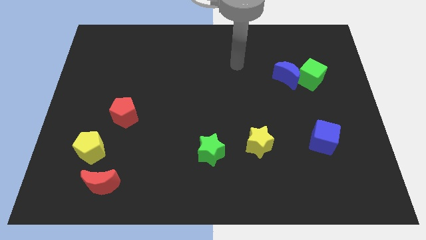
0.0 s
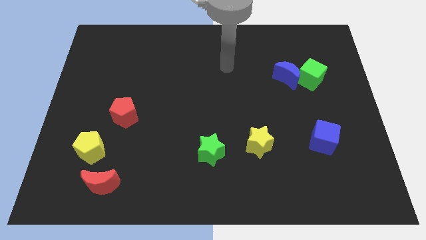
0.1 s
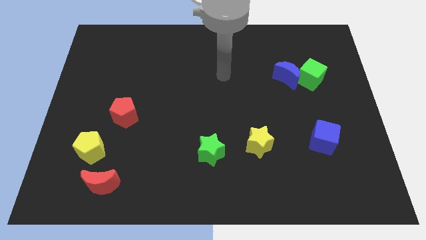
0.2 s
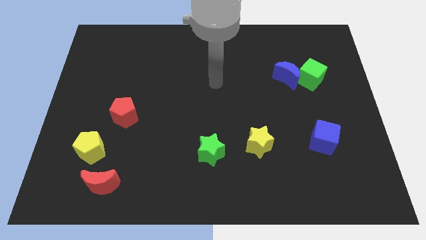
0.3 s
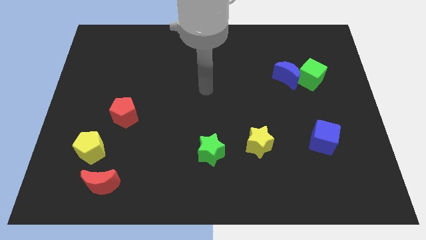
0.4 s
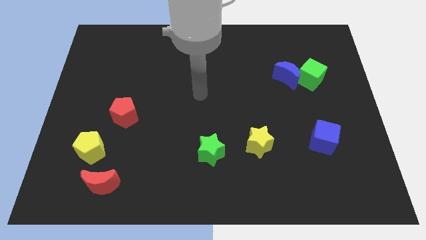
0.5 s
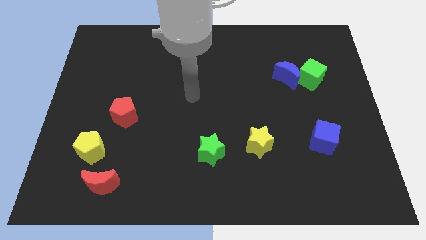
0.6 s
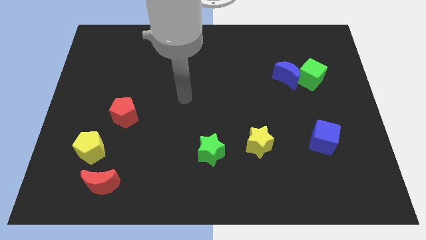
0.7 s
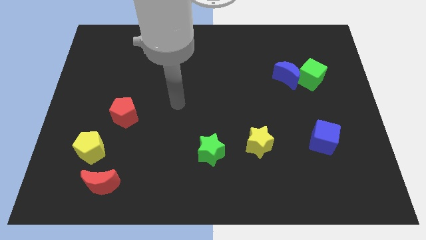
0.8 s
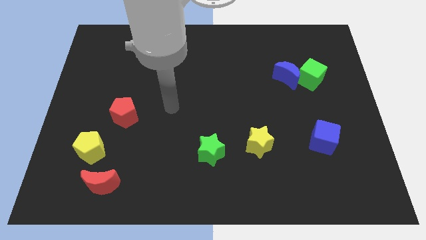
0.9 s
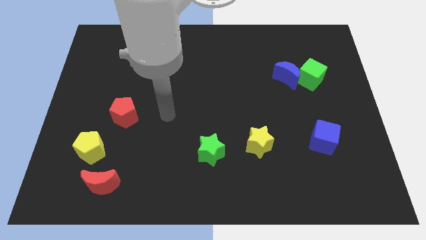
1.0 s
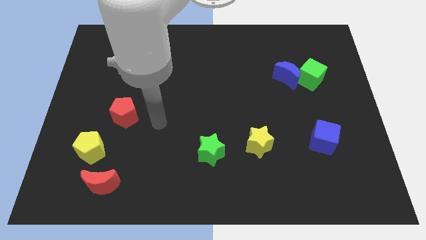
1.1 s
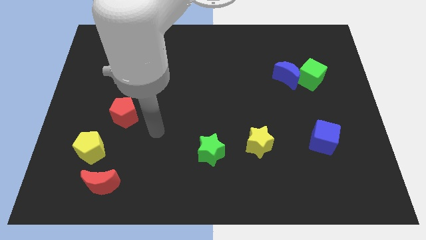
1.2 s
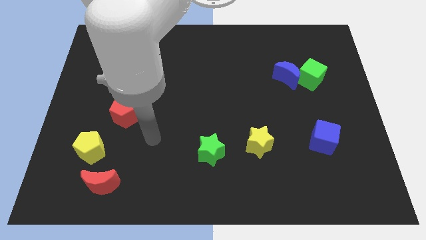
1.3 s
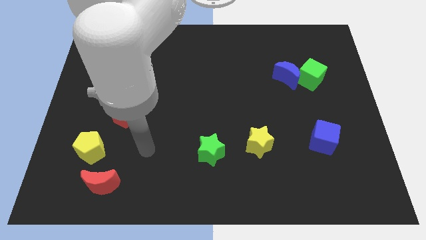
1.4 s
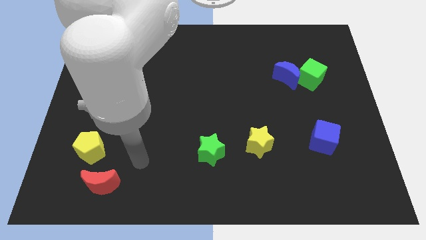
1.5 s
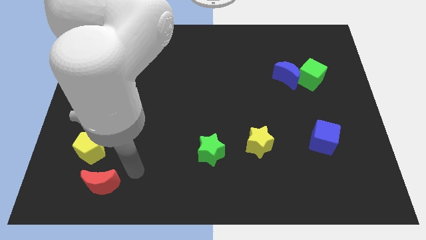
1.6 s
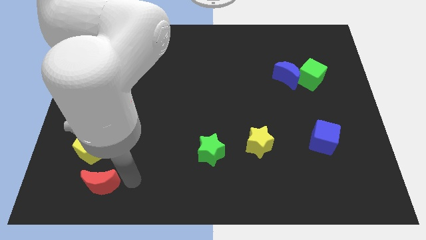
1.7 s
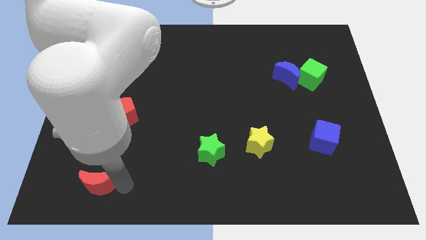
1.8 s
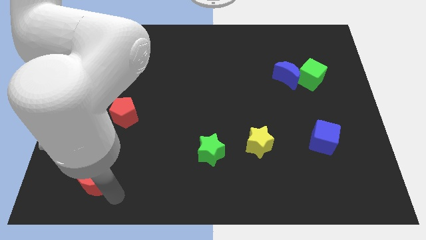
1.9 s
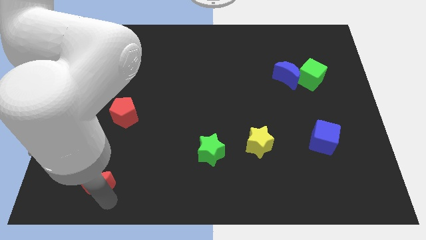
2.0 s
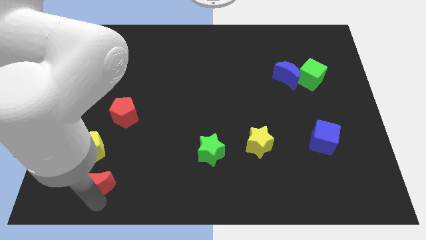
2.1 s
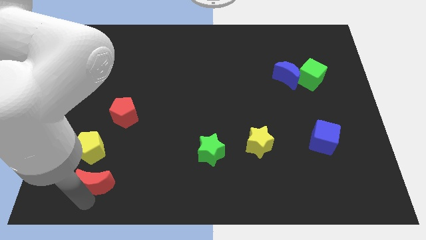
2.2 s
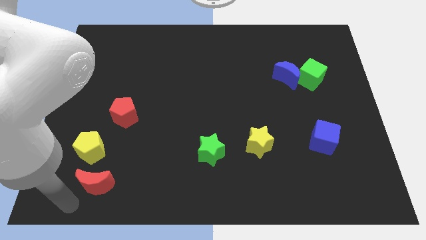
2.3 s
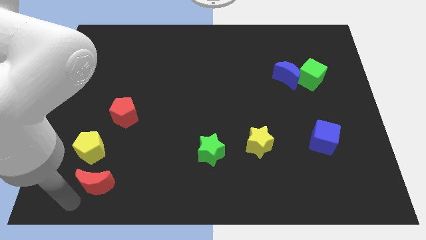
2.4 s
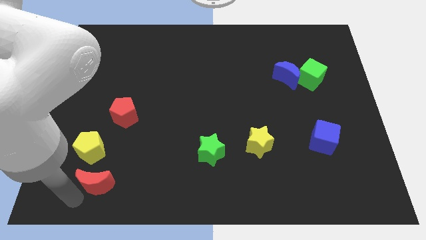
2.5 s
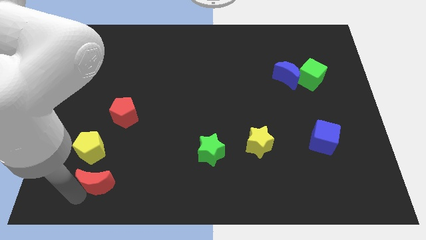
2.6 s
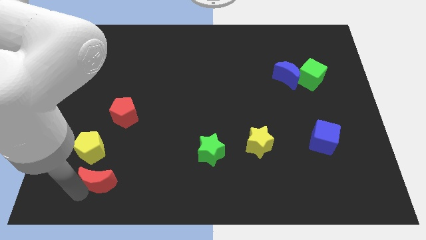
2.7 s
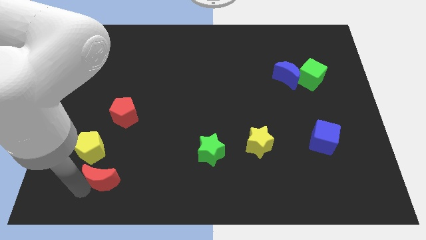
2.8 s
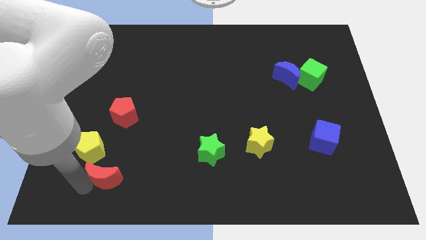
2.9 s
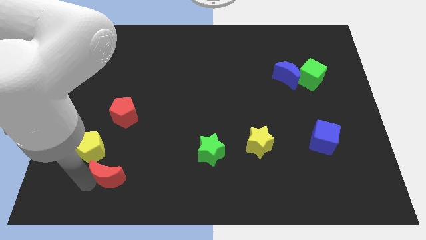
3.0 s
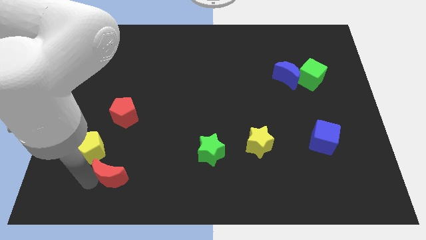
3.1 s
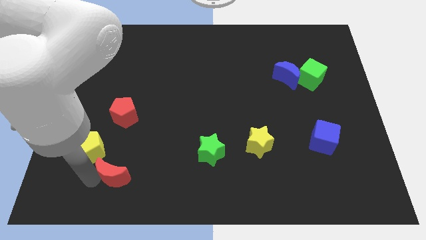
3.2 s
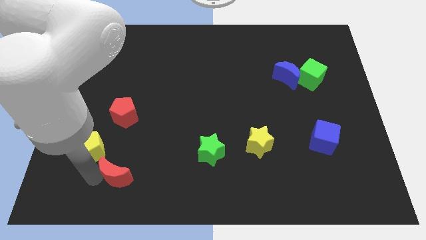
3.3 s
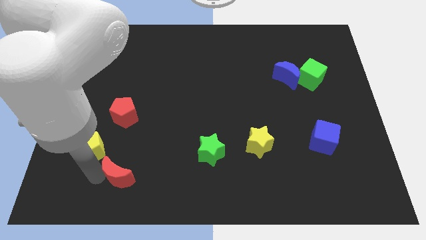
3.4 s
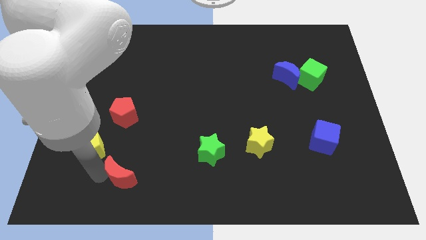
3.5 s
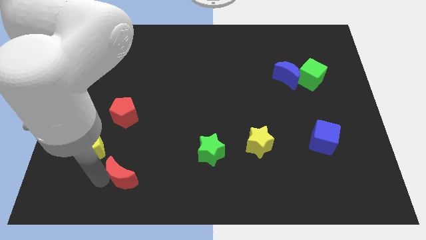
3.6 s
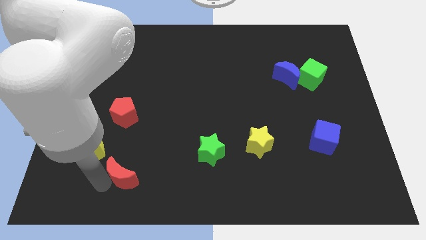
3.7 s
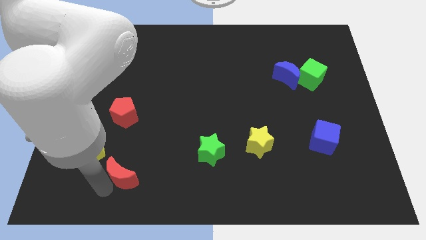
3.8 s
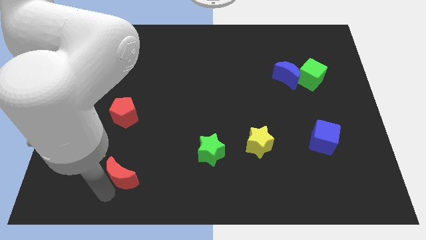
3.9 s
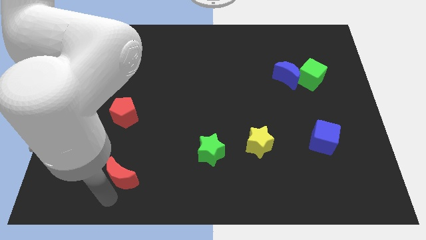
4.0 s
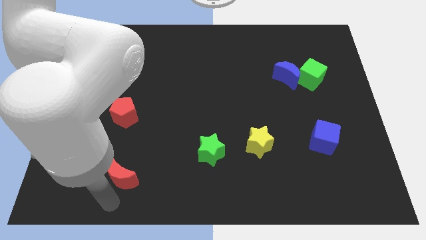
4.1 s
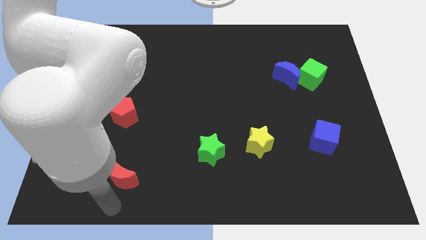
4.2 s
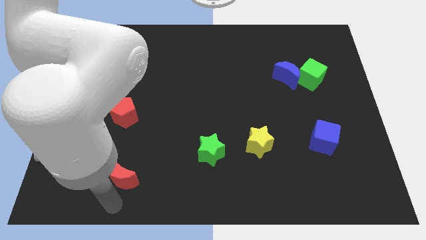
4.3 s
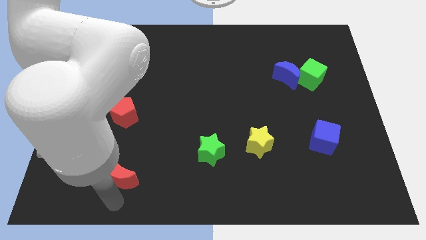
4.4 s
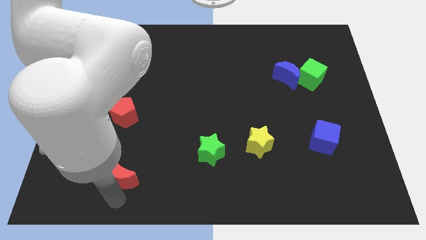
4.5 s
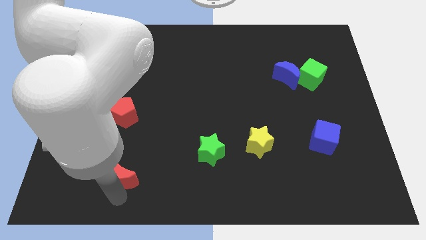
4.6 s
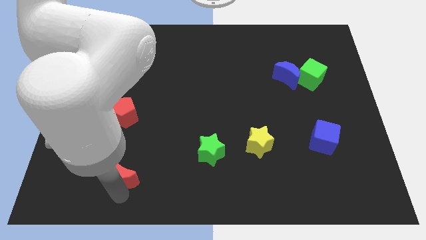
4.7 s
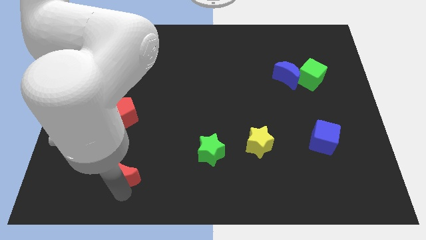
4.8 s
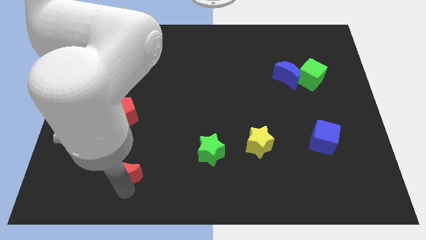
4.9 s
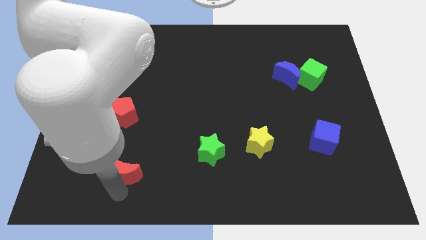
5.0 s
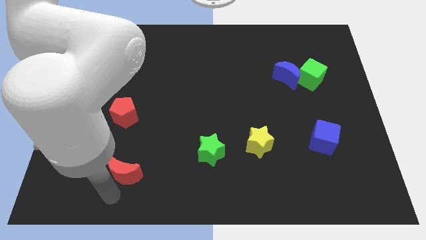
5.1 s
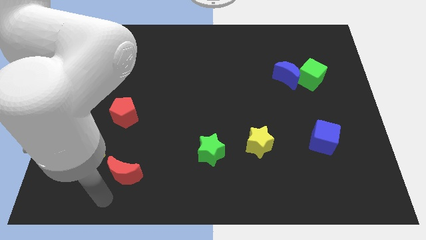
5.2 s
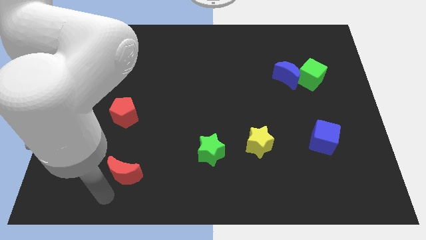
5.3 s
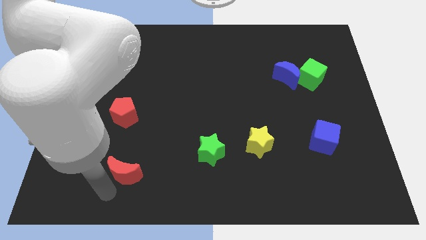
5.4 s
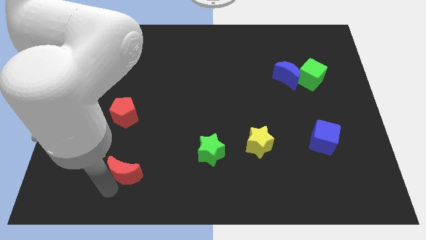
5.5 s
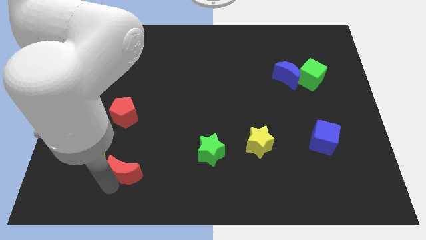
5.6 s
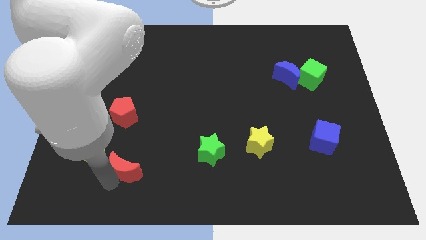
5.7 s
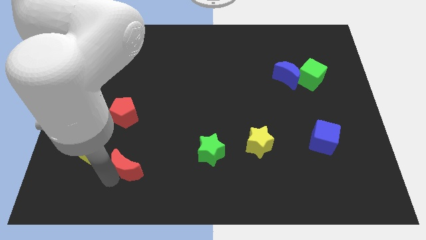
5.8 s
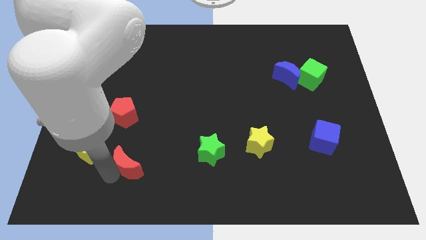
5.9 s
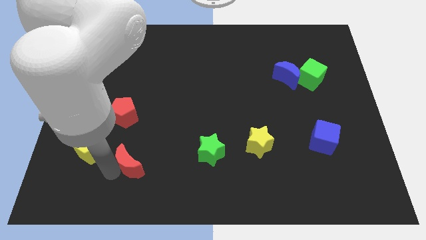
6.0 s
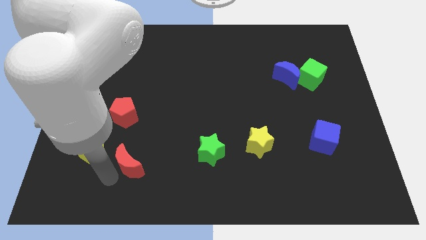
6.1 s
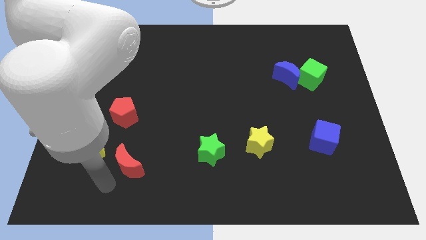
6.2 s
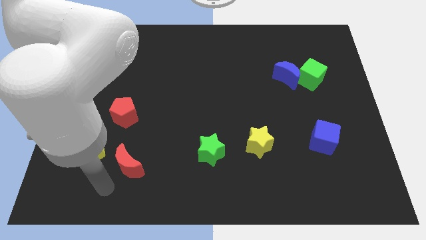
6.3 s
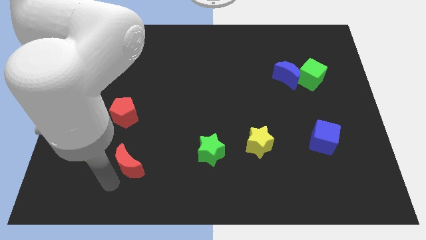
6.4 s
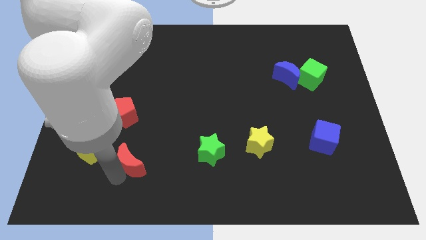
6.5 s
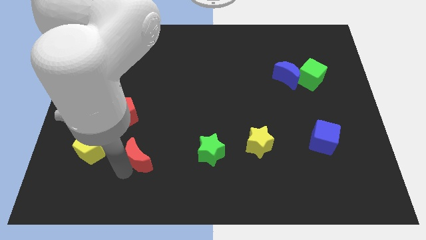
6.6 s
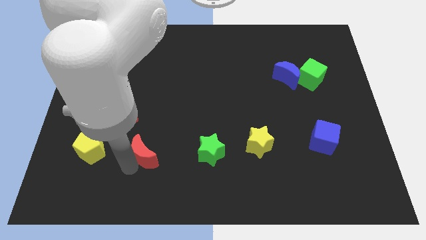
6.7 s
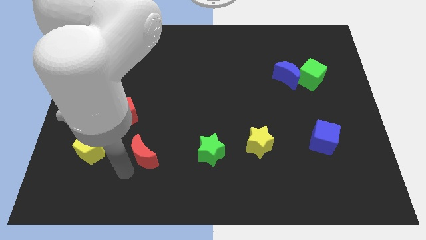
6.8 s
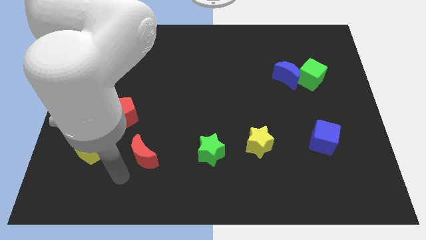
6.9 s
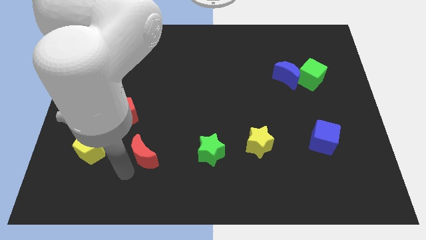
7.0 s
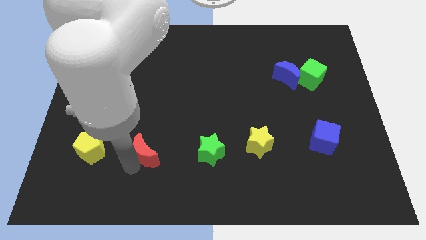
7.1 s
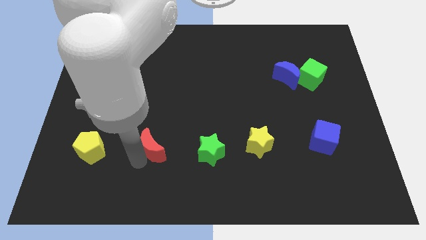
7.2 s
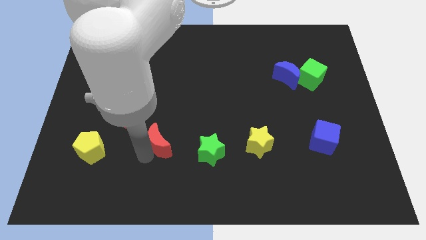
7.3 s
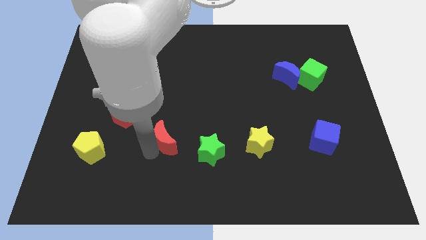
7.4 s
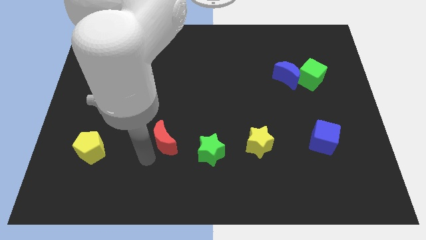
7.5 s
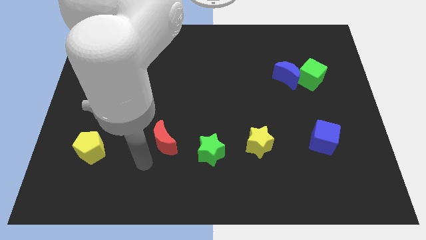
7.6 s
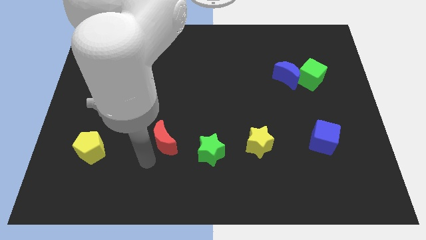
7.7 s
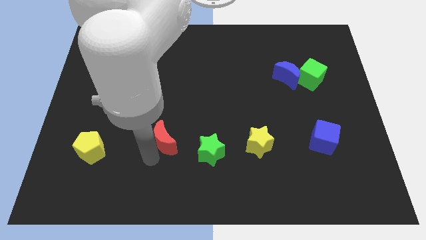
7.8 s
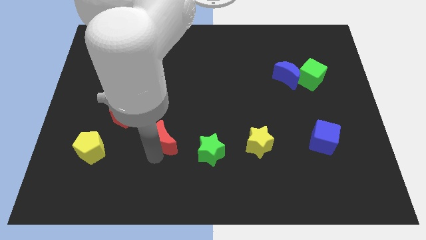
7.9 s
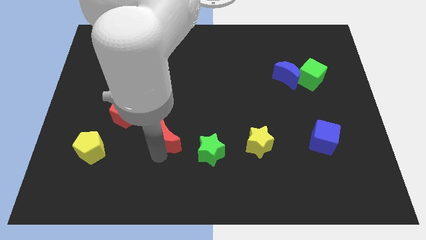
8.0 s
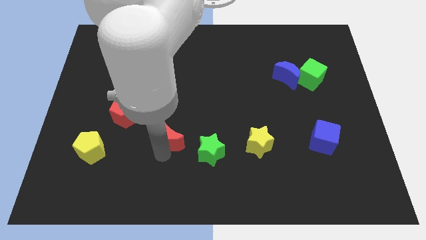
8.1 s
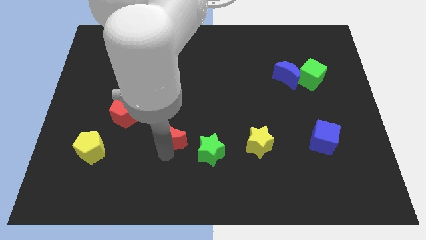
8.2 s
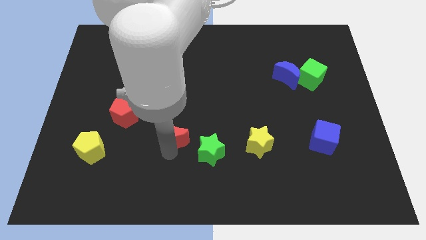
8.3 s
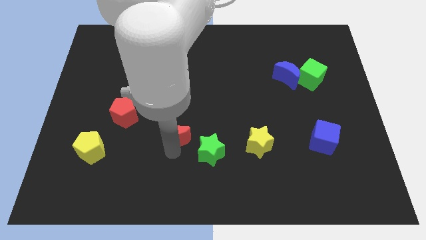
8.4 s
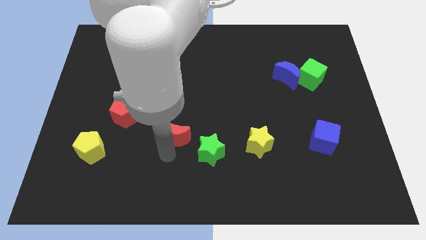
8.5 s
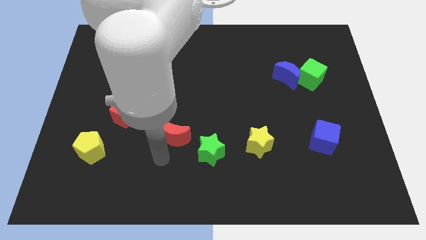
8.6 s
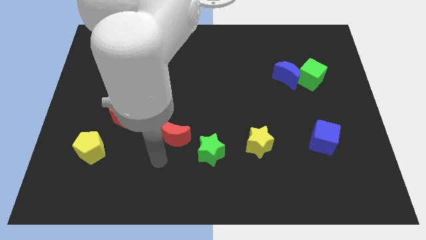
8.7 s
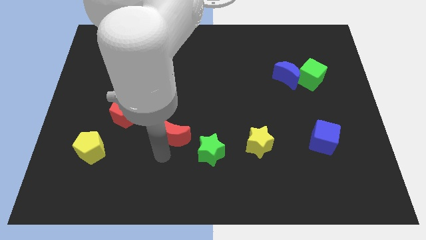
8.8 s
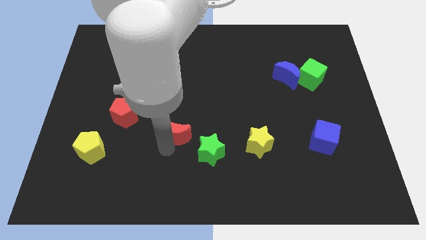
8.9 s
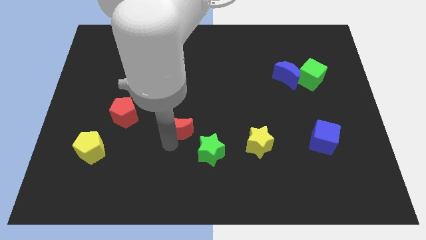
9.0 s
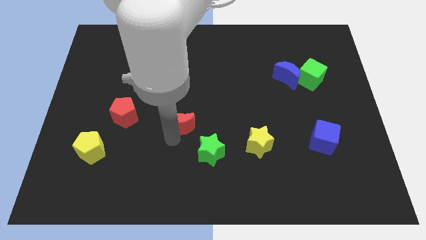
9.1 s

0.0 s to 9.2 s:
push the red moon up and right diagonally
